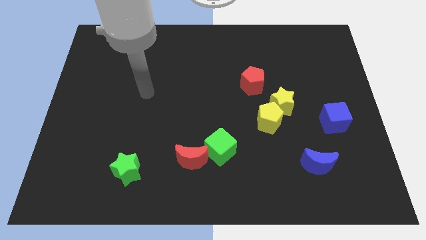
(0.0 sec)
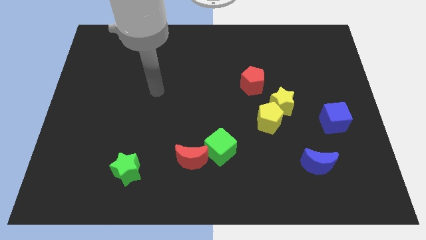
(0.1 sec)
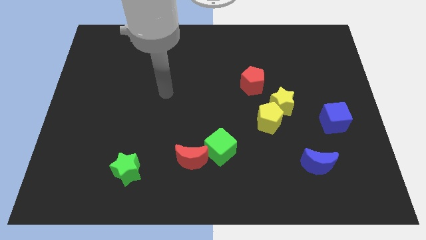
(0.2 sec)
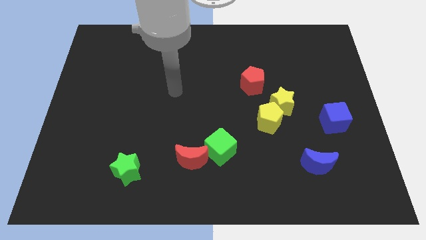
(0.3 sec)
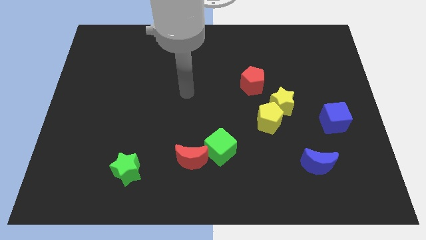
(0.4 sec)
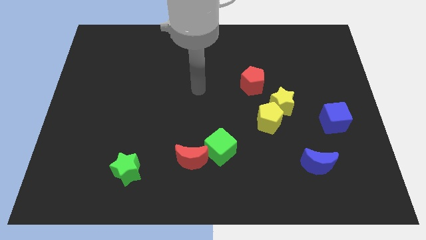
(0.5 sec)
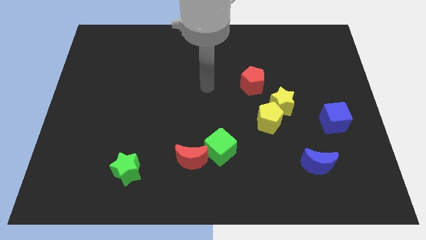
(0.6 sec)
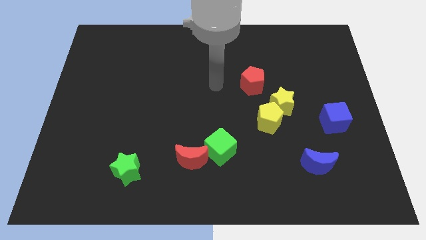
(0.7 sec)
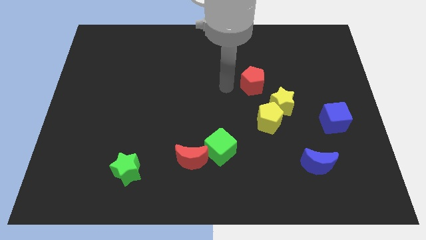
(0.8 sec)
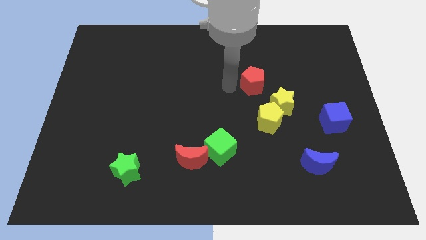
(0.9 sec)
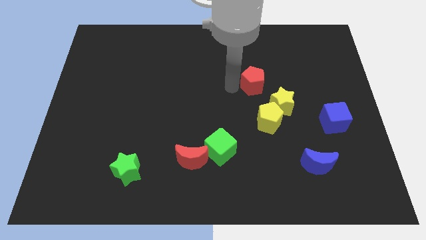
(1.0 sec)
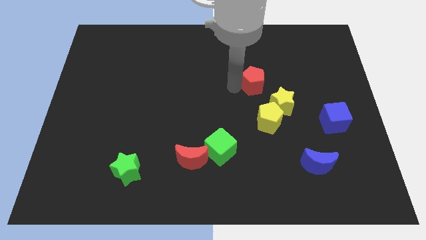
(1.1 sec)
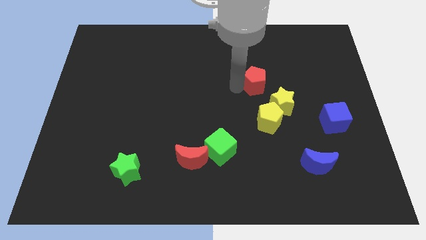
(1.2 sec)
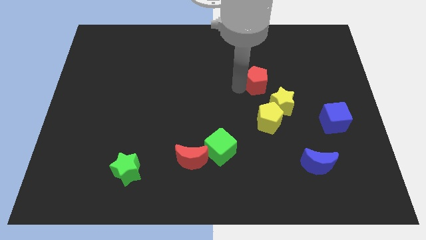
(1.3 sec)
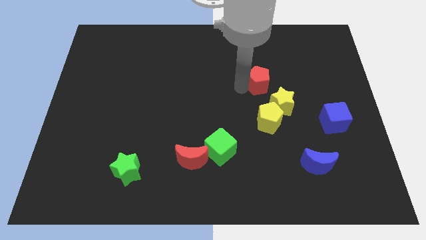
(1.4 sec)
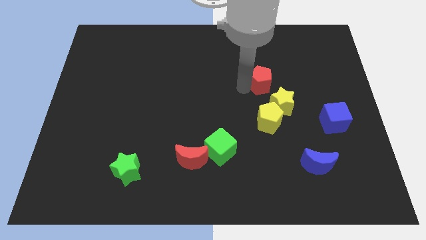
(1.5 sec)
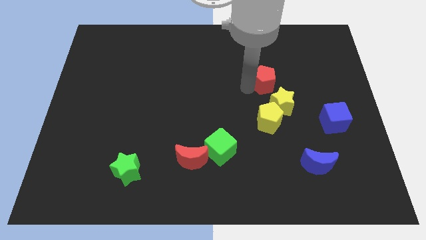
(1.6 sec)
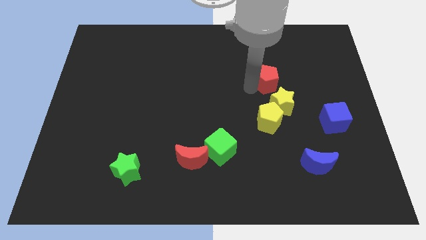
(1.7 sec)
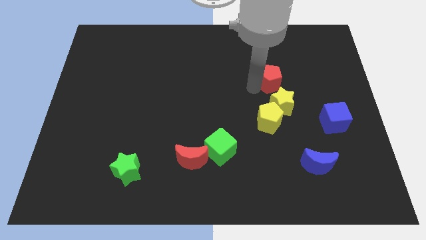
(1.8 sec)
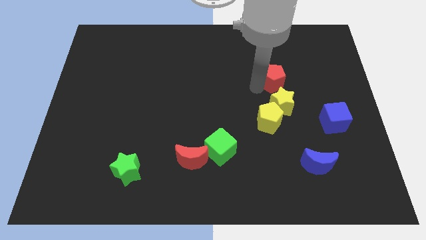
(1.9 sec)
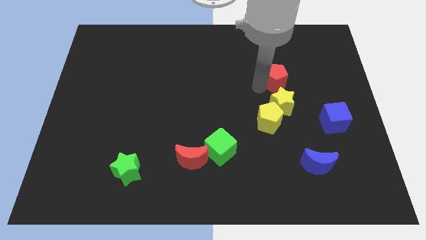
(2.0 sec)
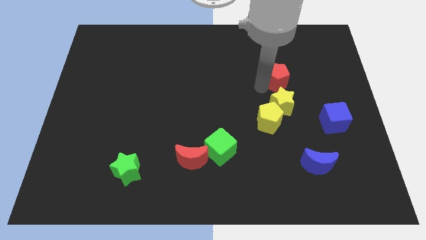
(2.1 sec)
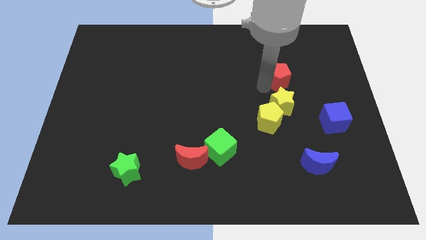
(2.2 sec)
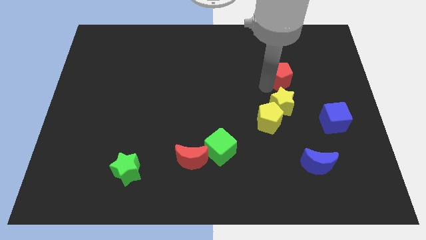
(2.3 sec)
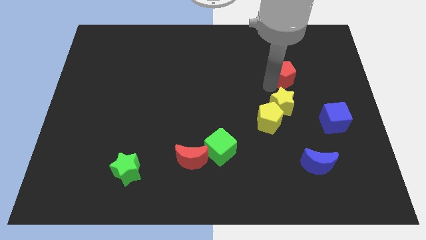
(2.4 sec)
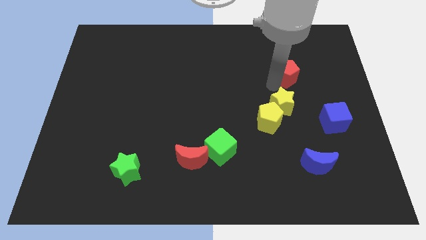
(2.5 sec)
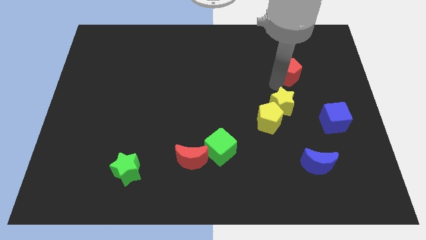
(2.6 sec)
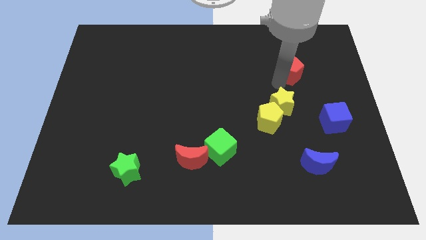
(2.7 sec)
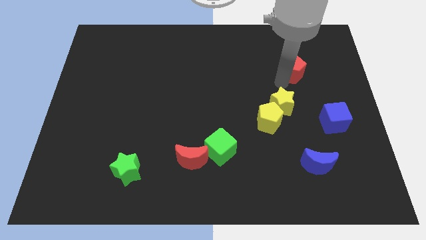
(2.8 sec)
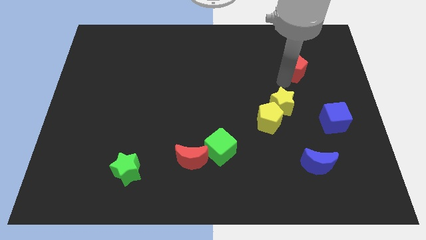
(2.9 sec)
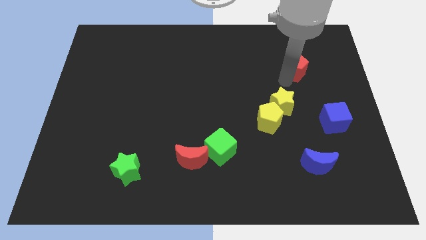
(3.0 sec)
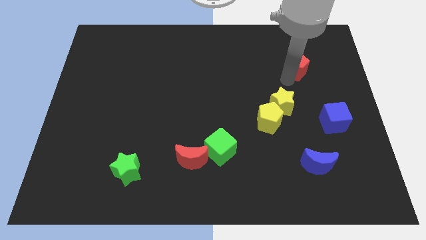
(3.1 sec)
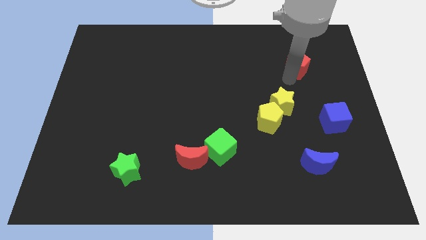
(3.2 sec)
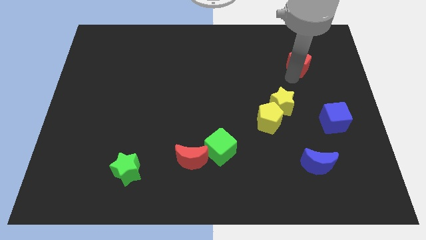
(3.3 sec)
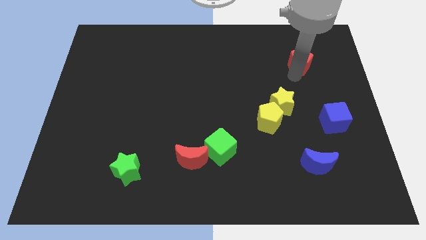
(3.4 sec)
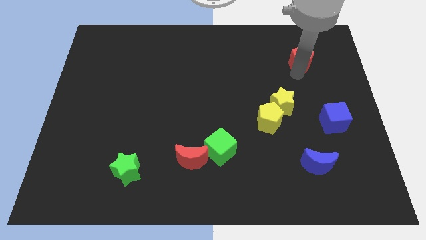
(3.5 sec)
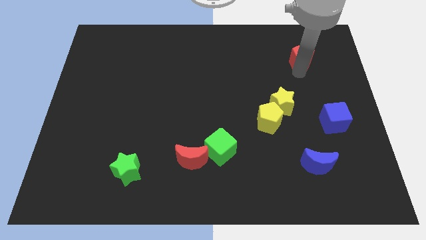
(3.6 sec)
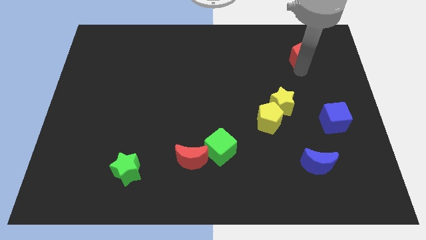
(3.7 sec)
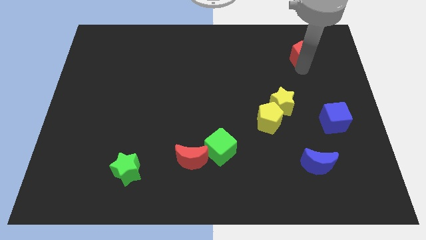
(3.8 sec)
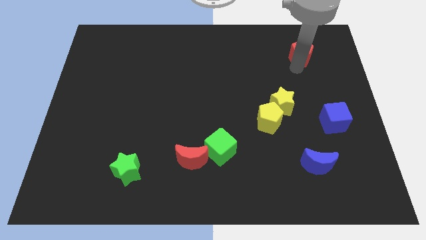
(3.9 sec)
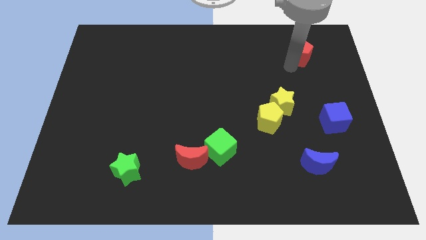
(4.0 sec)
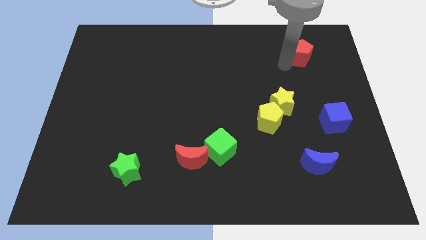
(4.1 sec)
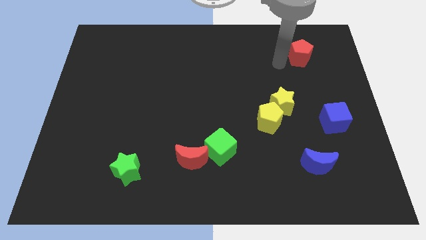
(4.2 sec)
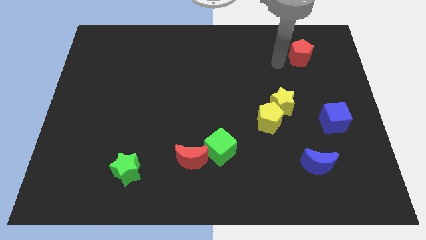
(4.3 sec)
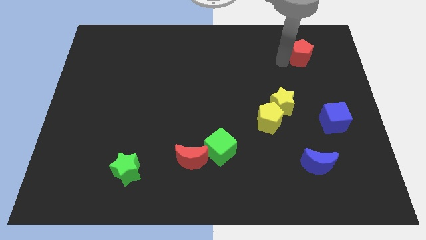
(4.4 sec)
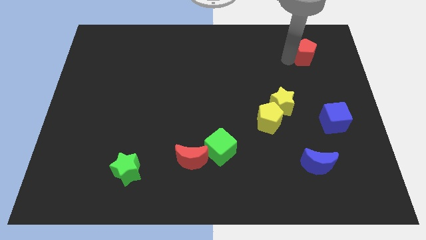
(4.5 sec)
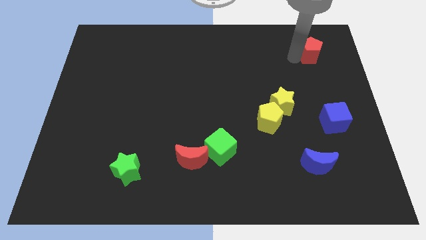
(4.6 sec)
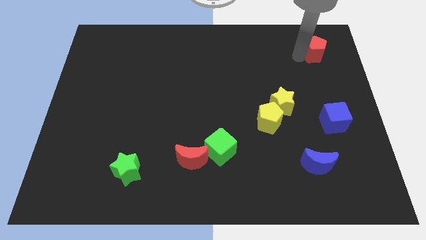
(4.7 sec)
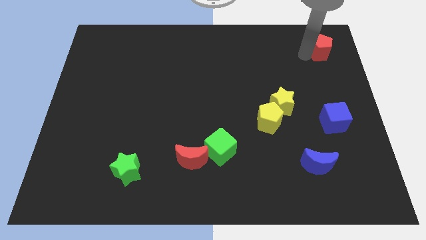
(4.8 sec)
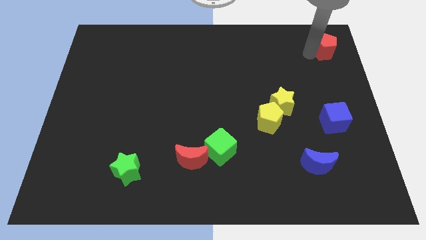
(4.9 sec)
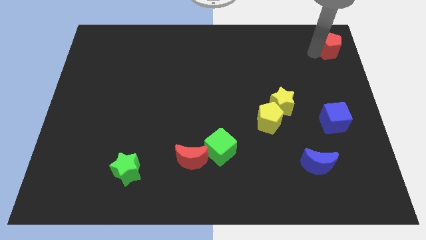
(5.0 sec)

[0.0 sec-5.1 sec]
put the red pentagon to the top right corner

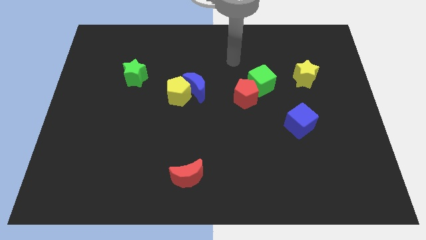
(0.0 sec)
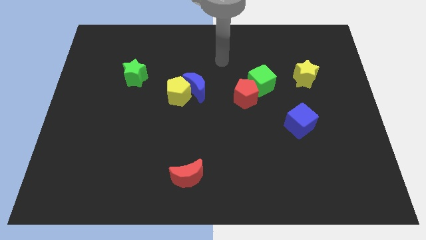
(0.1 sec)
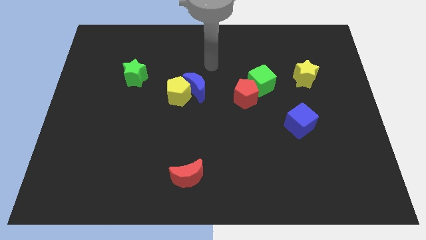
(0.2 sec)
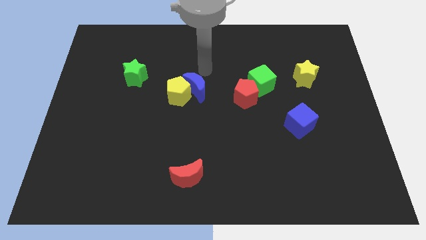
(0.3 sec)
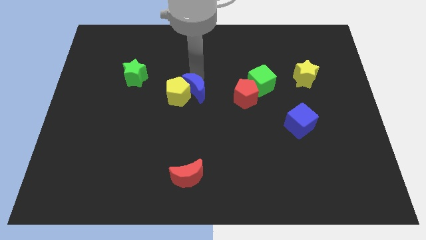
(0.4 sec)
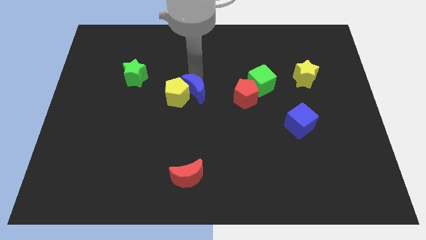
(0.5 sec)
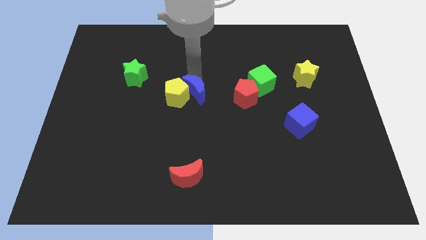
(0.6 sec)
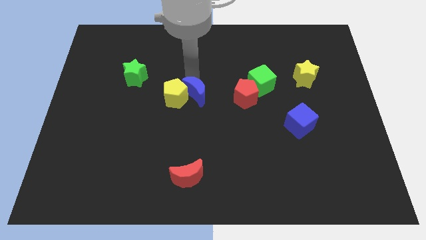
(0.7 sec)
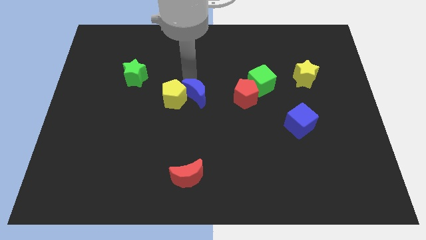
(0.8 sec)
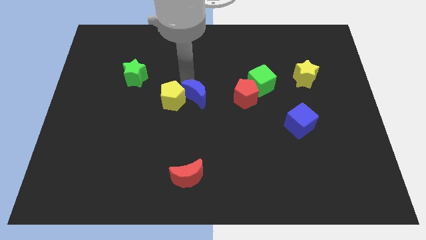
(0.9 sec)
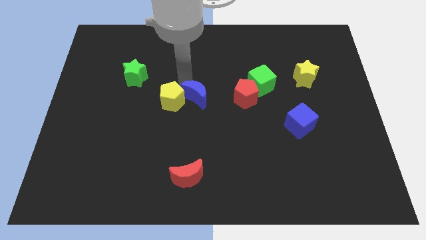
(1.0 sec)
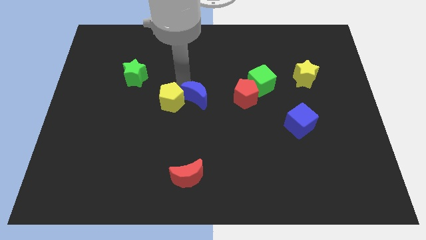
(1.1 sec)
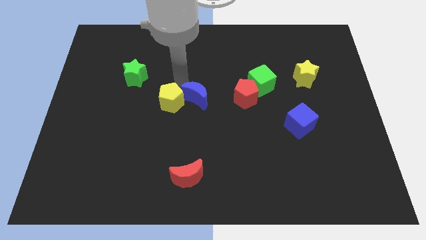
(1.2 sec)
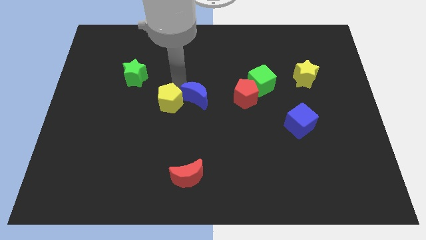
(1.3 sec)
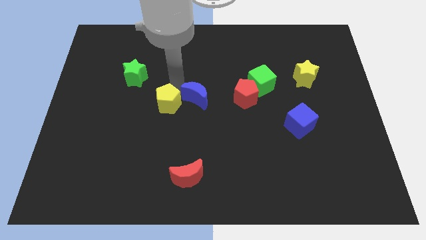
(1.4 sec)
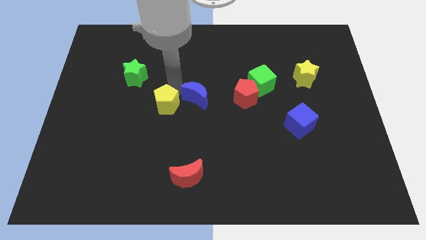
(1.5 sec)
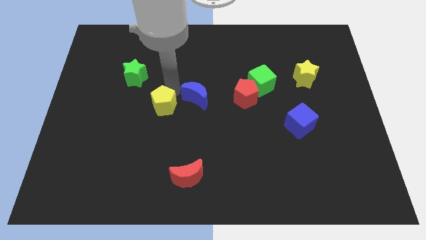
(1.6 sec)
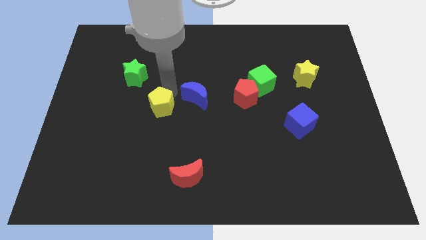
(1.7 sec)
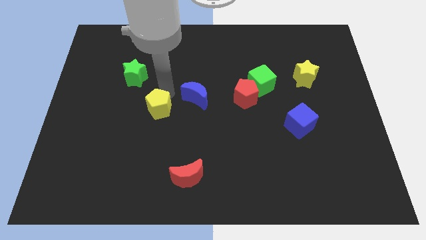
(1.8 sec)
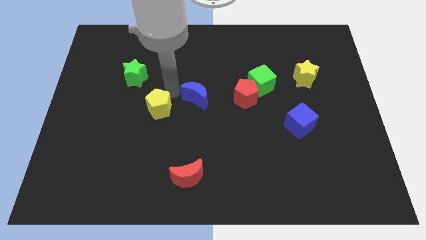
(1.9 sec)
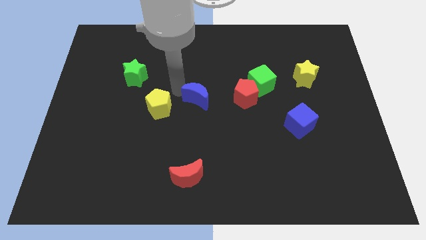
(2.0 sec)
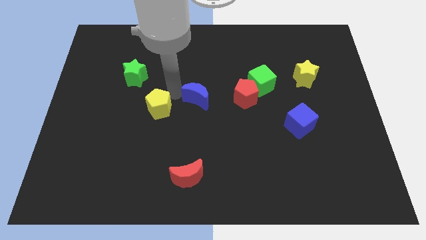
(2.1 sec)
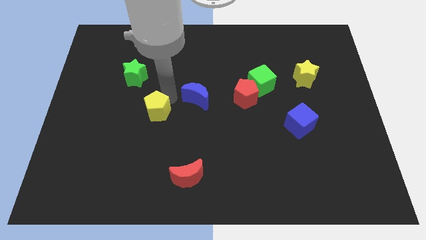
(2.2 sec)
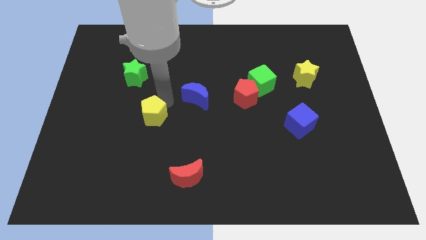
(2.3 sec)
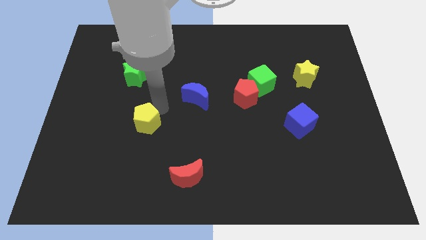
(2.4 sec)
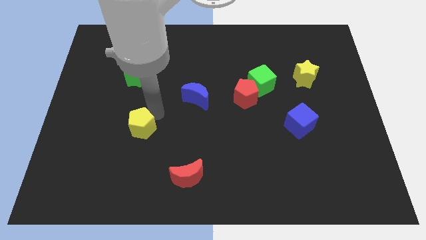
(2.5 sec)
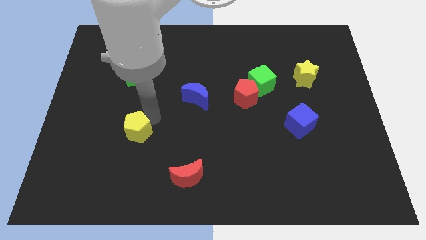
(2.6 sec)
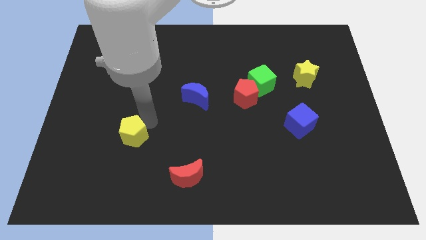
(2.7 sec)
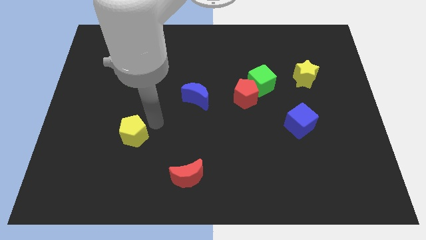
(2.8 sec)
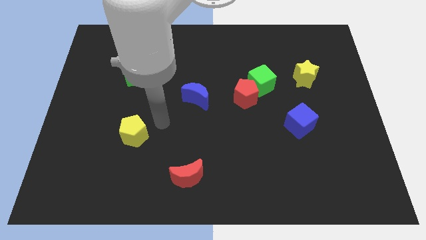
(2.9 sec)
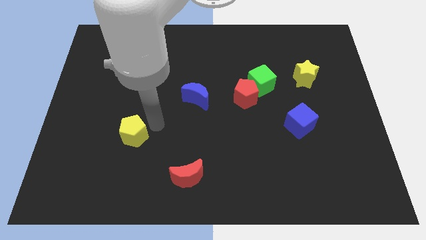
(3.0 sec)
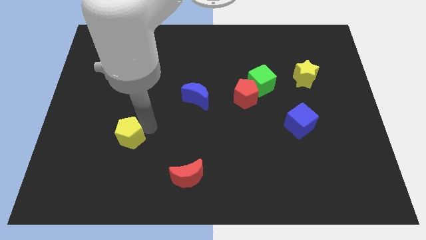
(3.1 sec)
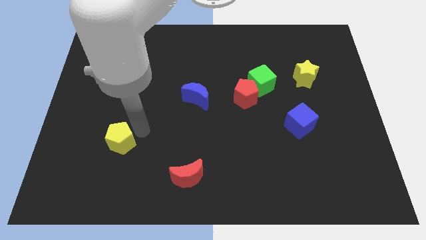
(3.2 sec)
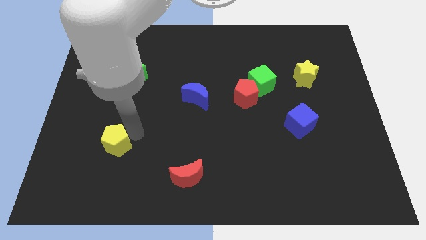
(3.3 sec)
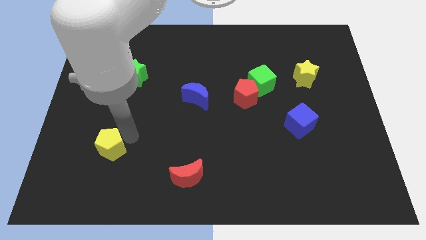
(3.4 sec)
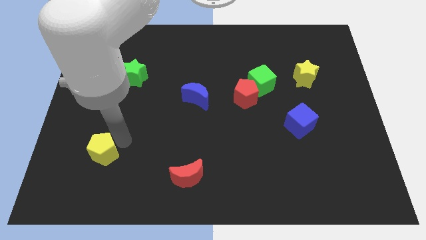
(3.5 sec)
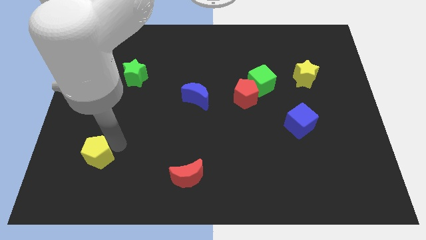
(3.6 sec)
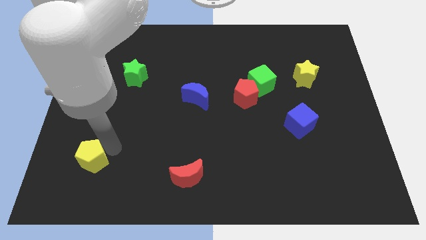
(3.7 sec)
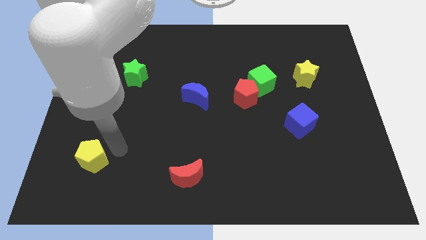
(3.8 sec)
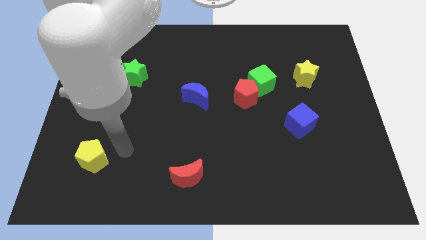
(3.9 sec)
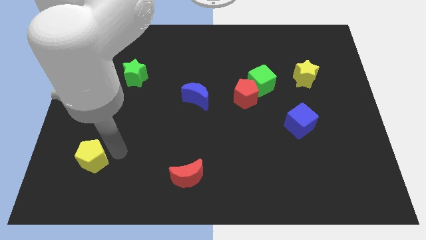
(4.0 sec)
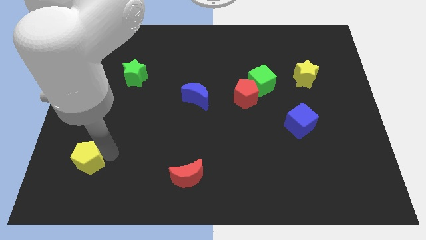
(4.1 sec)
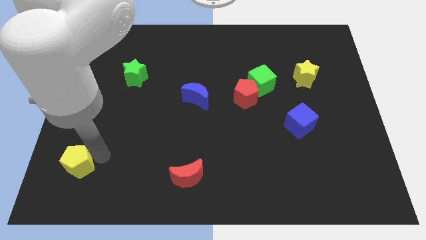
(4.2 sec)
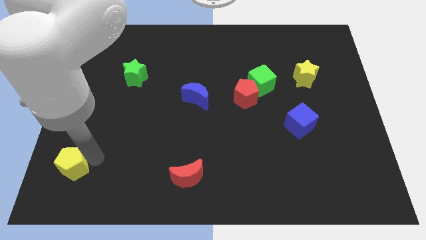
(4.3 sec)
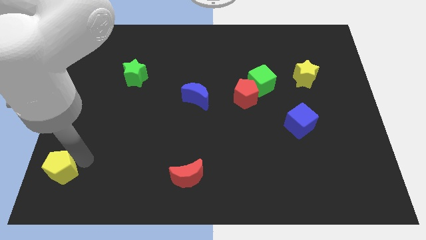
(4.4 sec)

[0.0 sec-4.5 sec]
push the yellow pentagon to the bottom left corner
